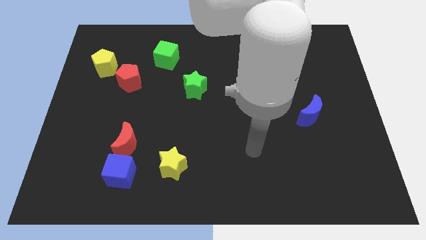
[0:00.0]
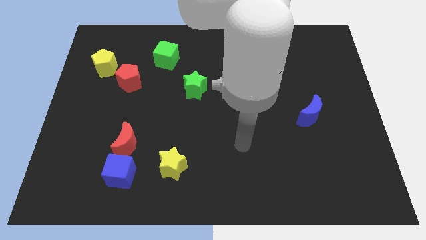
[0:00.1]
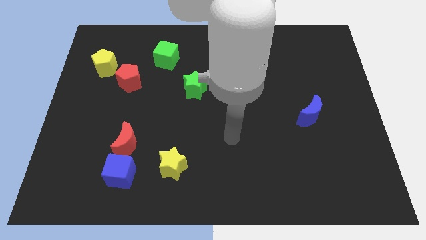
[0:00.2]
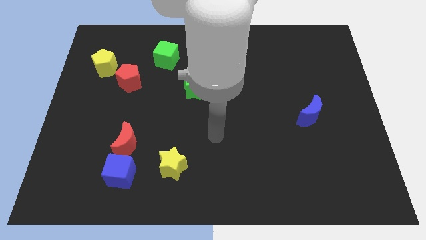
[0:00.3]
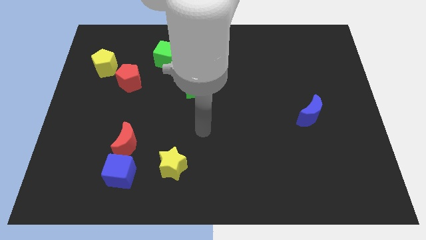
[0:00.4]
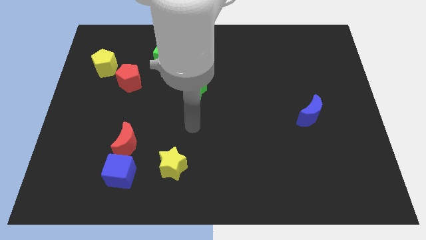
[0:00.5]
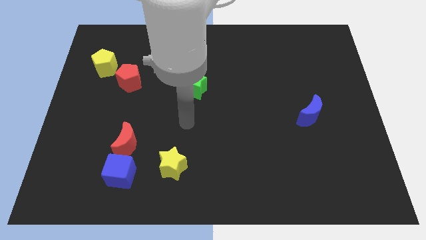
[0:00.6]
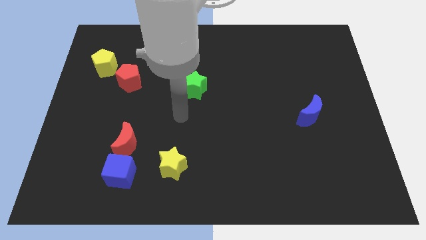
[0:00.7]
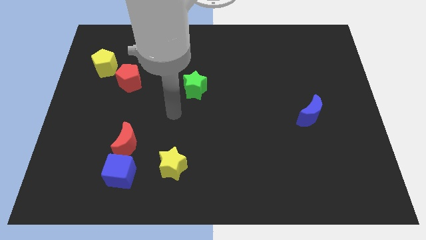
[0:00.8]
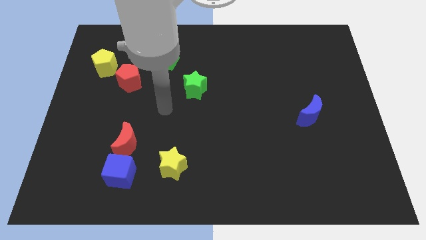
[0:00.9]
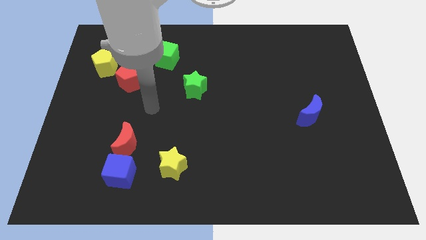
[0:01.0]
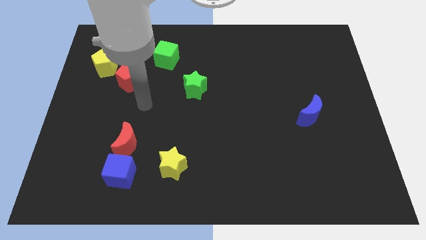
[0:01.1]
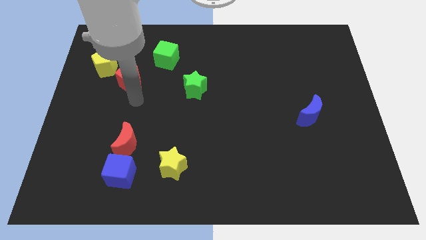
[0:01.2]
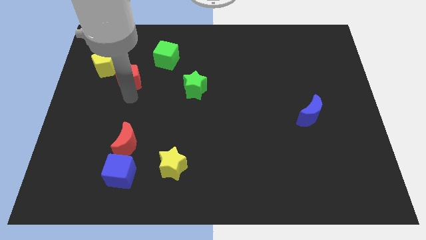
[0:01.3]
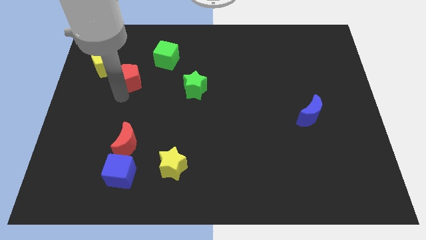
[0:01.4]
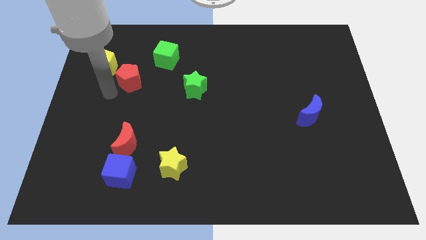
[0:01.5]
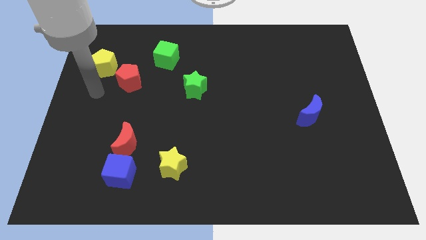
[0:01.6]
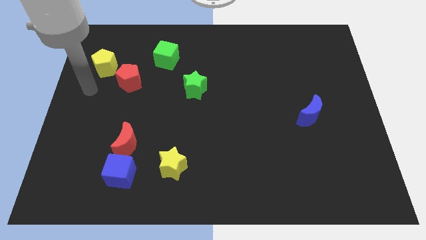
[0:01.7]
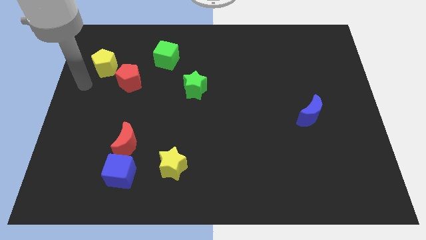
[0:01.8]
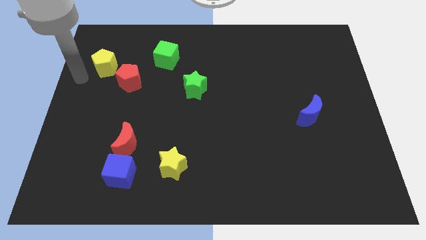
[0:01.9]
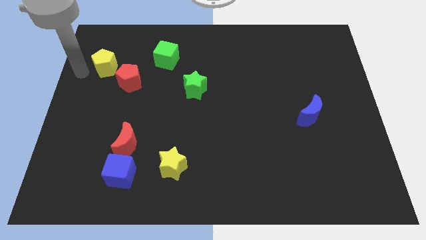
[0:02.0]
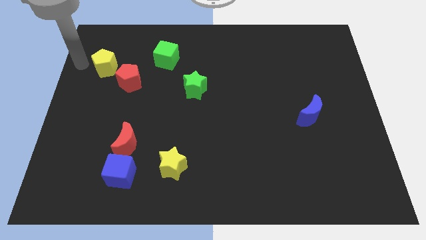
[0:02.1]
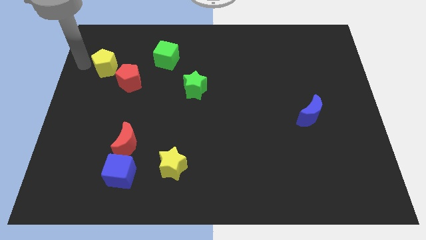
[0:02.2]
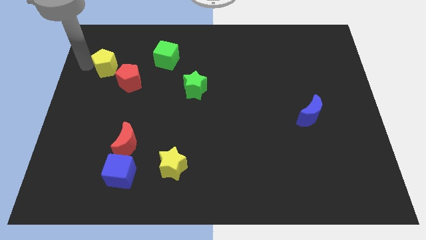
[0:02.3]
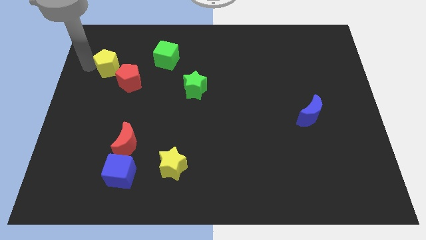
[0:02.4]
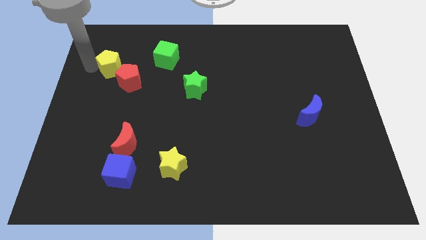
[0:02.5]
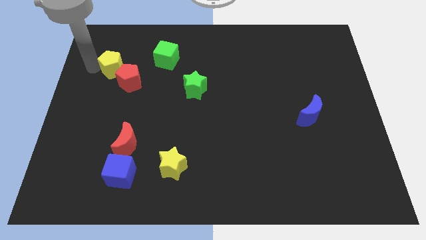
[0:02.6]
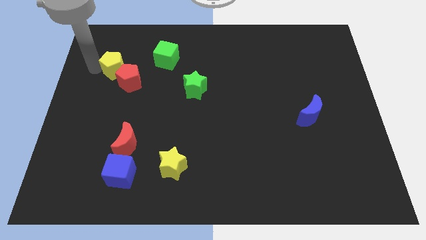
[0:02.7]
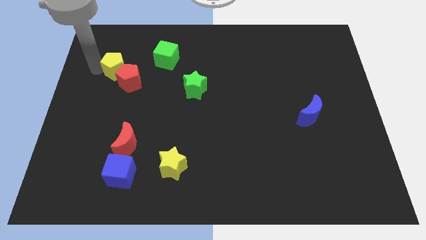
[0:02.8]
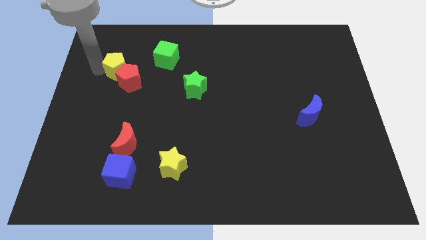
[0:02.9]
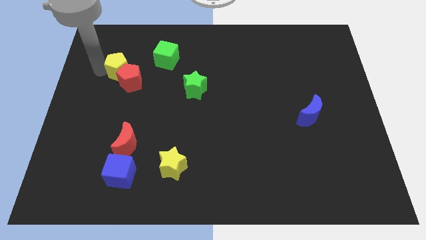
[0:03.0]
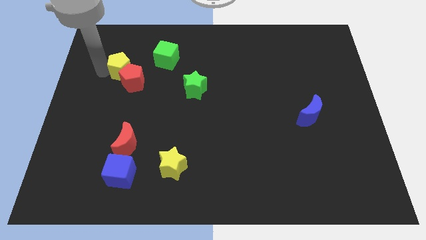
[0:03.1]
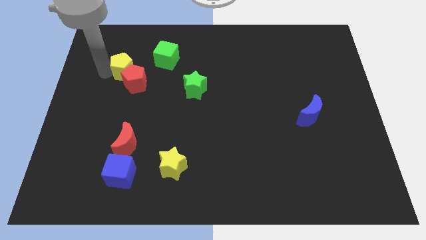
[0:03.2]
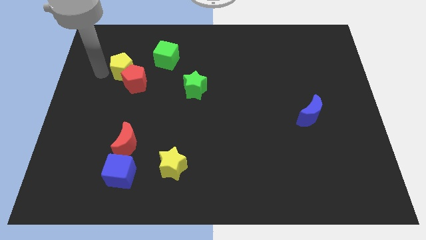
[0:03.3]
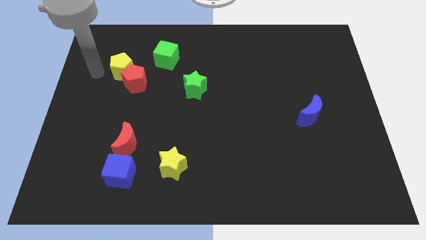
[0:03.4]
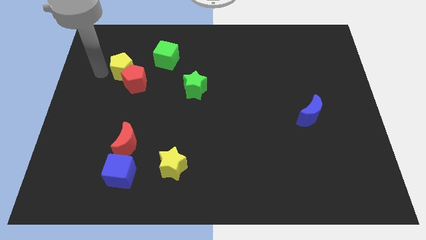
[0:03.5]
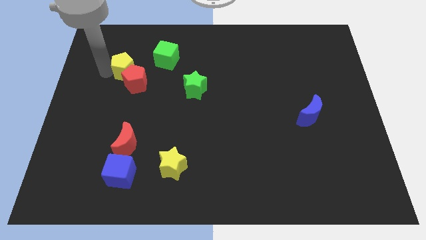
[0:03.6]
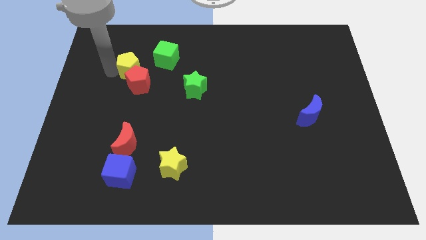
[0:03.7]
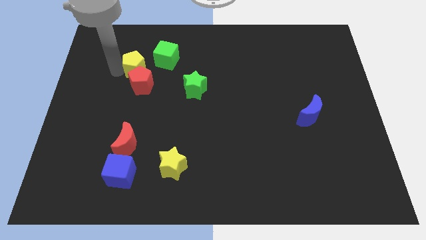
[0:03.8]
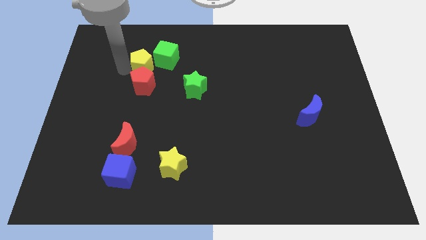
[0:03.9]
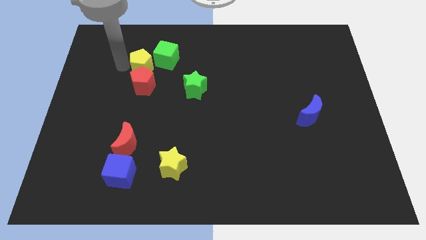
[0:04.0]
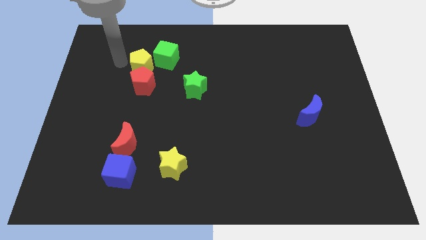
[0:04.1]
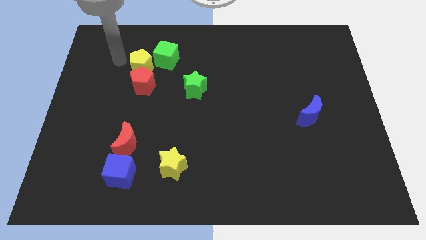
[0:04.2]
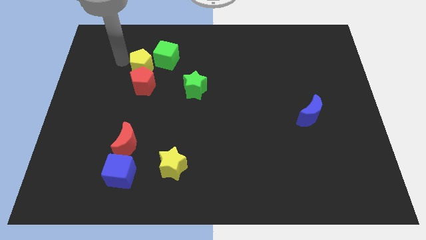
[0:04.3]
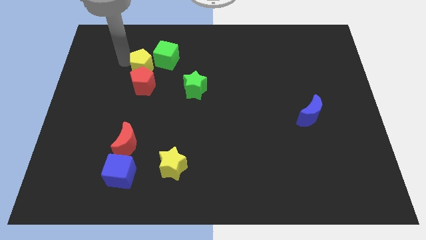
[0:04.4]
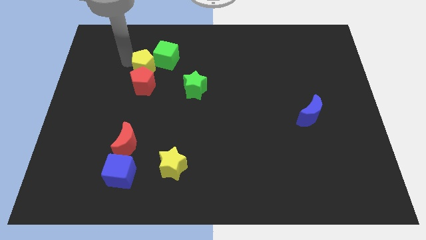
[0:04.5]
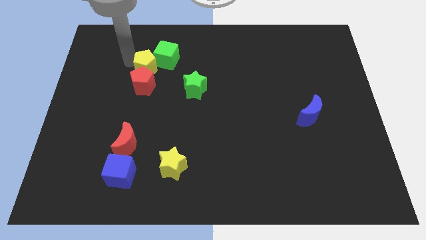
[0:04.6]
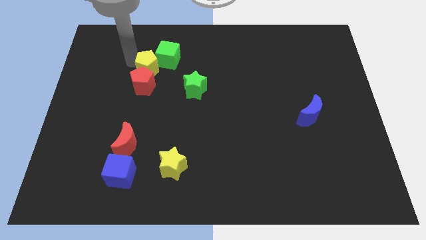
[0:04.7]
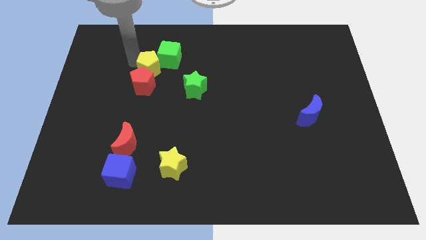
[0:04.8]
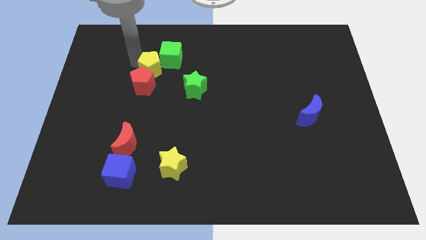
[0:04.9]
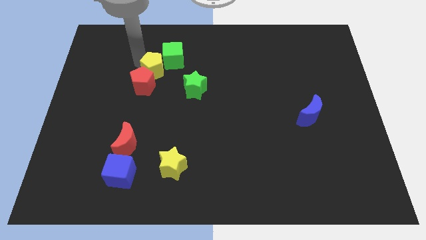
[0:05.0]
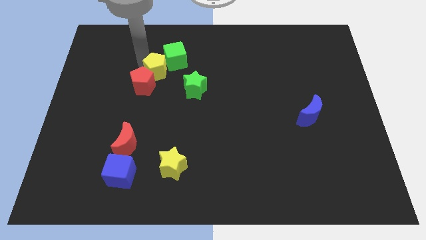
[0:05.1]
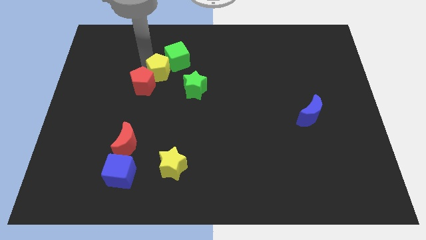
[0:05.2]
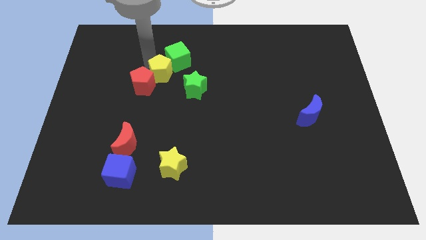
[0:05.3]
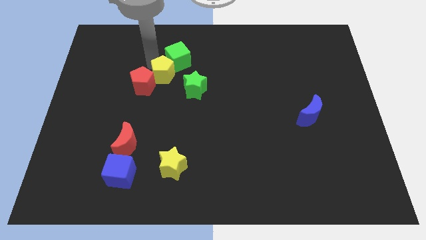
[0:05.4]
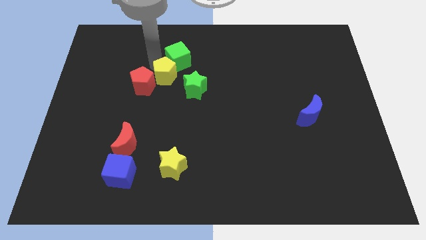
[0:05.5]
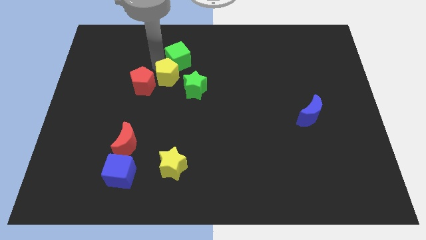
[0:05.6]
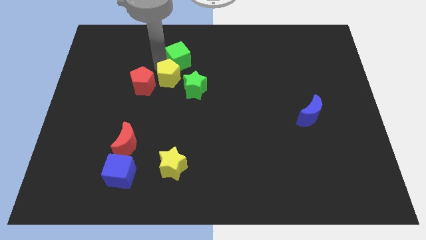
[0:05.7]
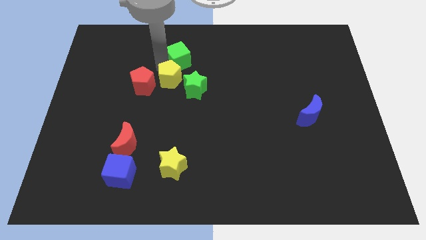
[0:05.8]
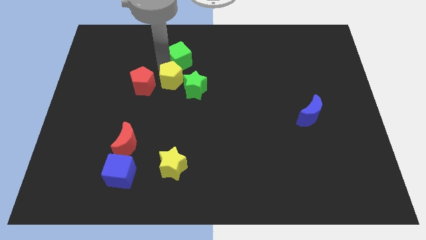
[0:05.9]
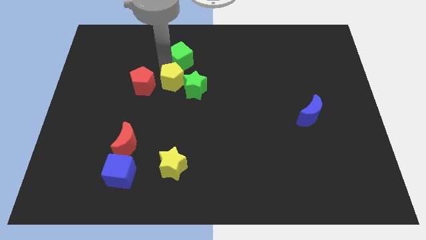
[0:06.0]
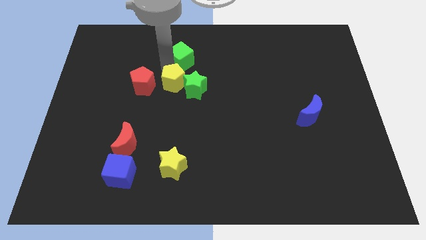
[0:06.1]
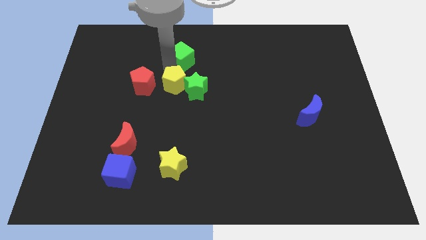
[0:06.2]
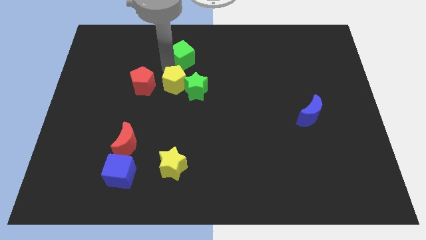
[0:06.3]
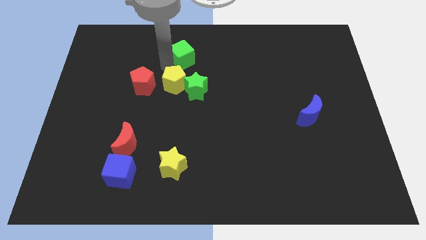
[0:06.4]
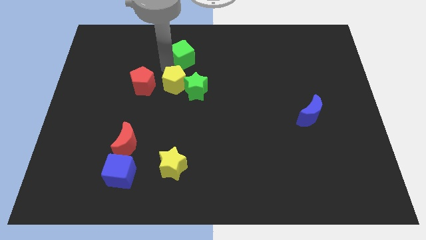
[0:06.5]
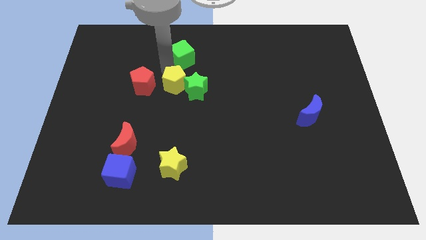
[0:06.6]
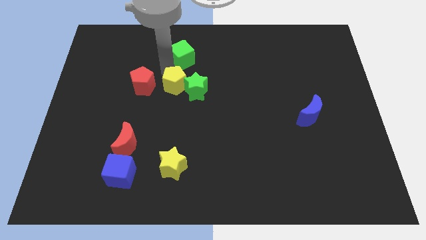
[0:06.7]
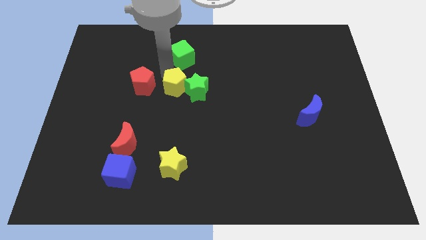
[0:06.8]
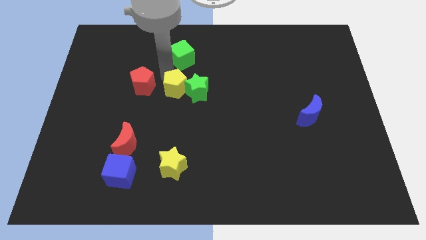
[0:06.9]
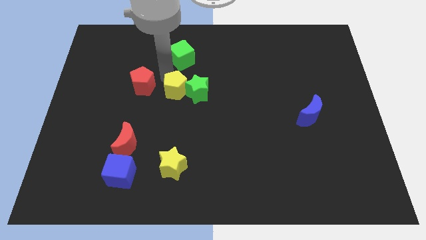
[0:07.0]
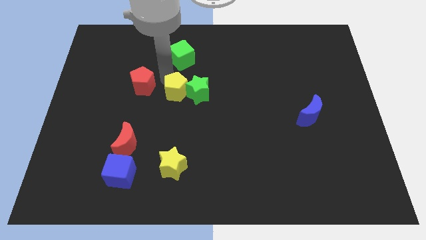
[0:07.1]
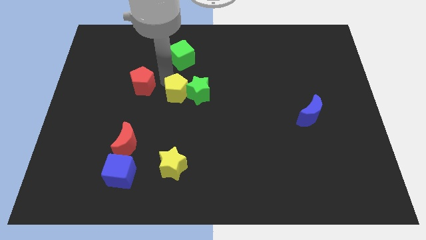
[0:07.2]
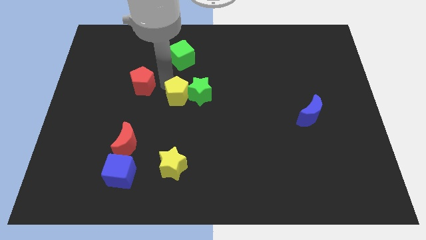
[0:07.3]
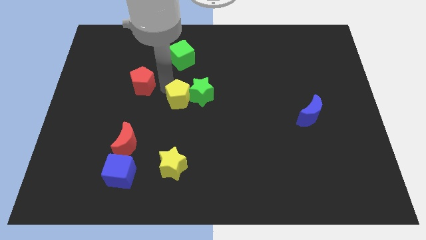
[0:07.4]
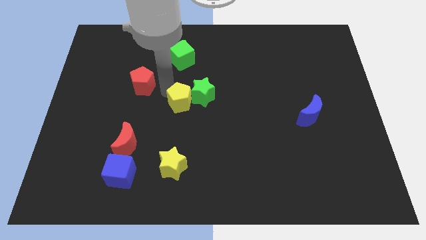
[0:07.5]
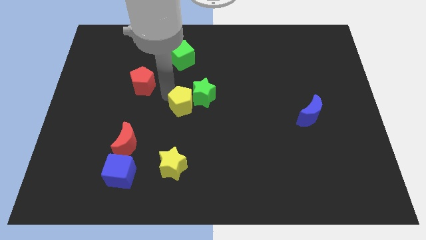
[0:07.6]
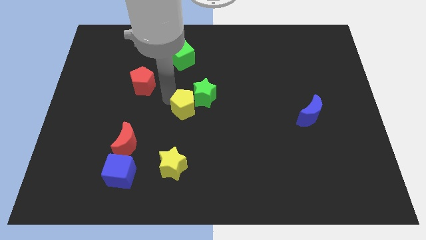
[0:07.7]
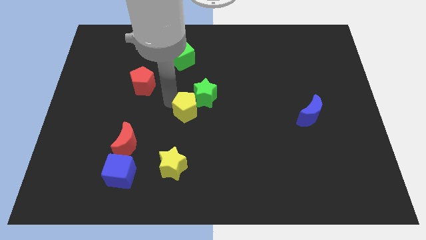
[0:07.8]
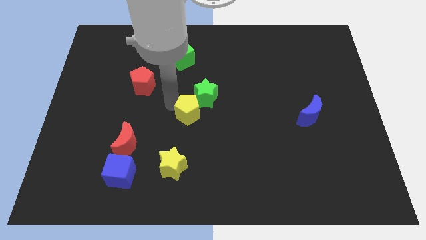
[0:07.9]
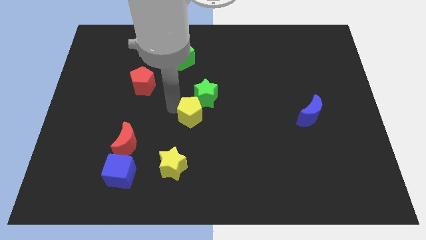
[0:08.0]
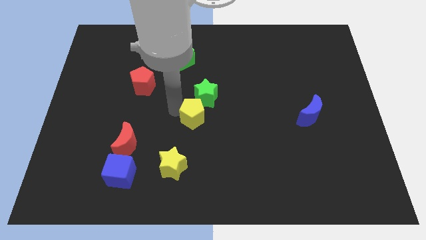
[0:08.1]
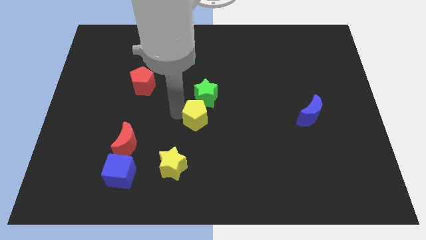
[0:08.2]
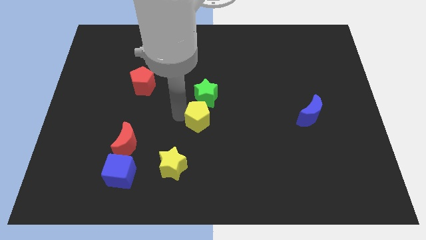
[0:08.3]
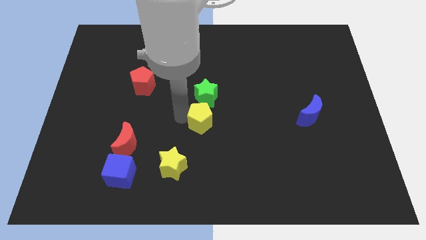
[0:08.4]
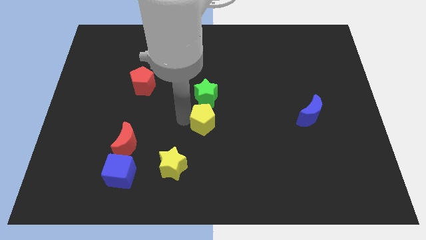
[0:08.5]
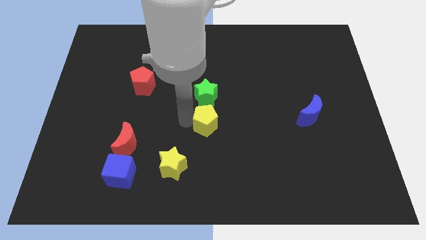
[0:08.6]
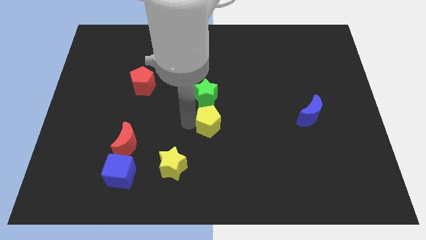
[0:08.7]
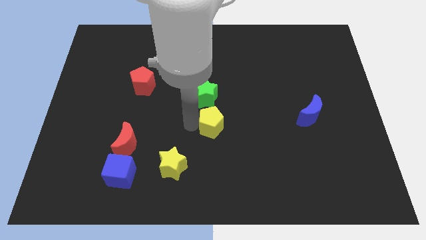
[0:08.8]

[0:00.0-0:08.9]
put the yellow pentagon diagonally down and to the right of the green star
